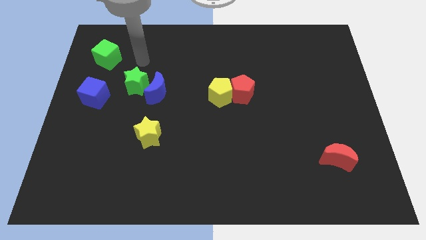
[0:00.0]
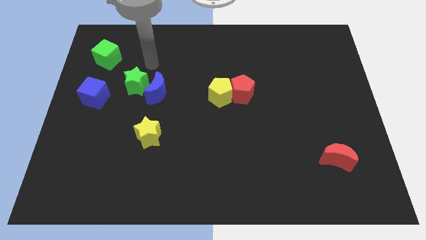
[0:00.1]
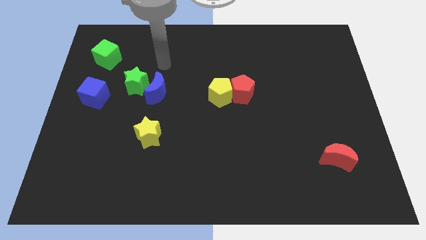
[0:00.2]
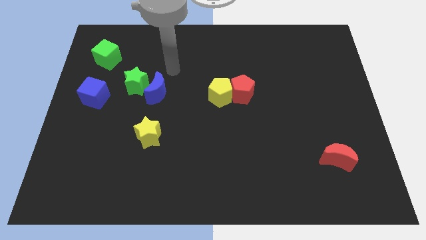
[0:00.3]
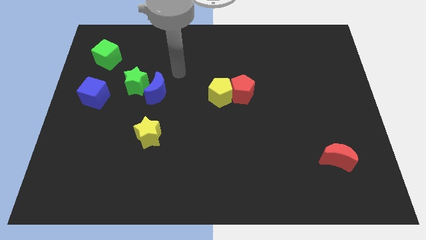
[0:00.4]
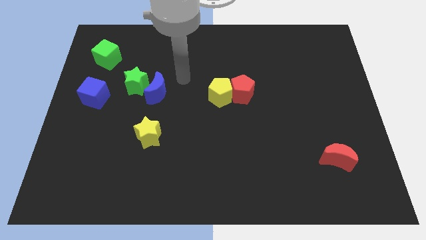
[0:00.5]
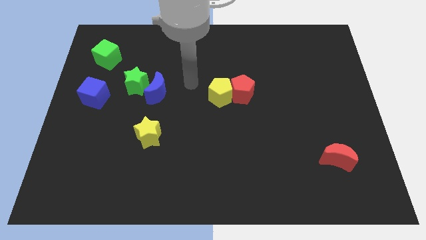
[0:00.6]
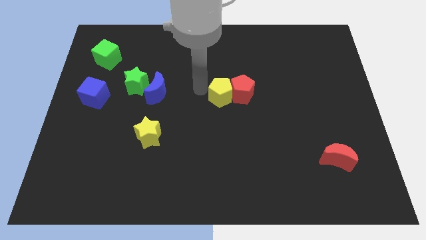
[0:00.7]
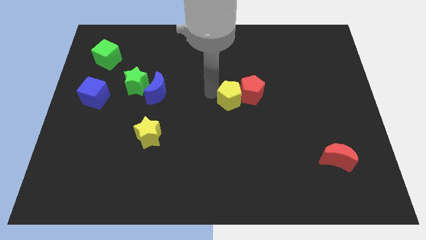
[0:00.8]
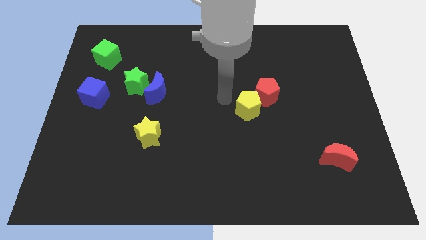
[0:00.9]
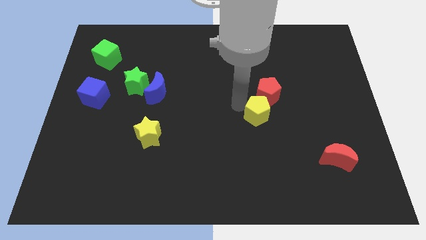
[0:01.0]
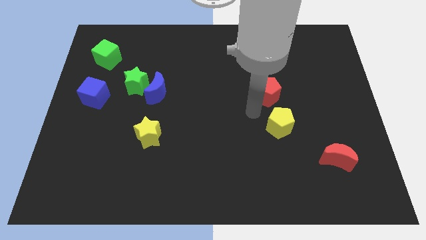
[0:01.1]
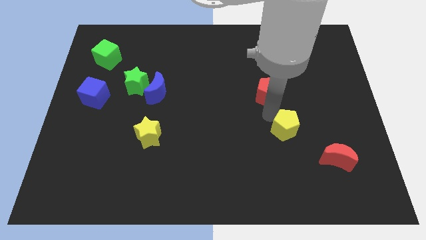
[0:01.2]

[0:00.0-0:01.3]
separate the red pentagon from the yellow pentagon

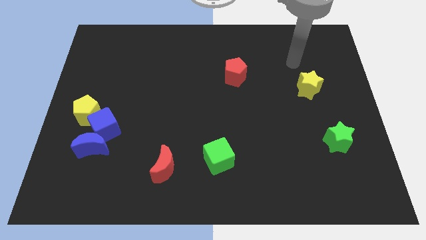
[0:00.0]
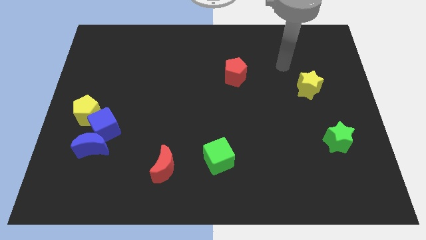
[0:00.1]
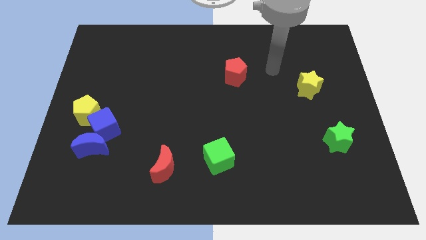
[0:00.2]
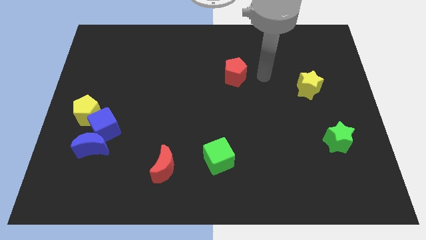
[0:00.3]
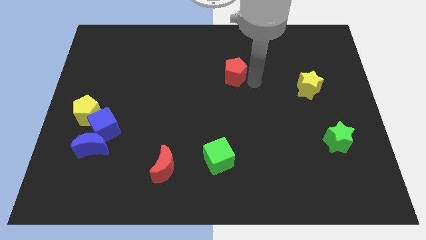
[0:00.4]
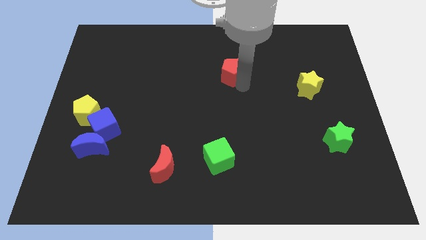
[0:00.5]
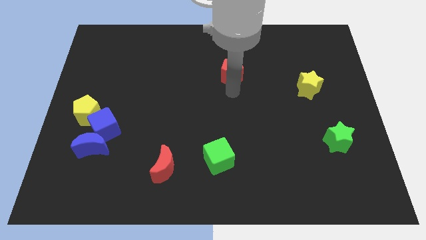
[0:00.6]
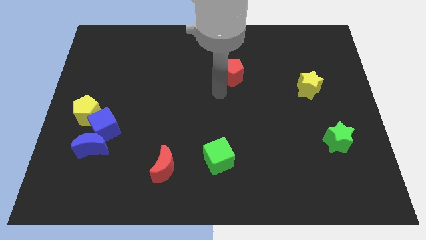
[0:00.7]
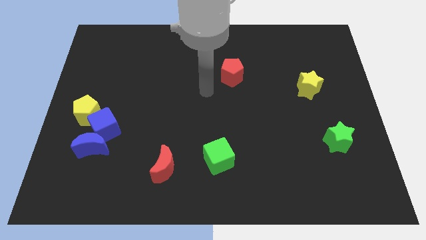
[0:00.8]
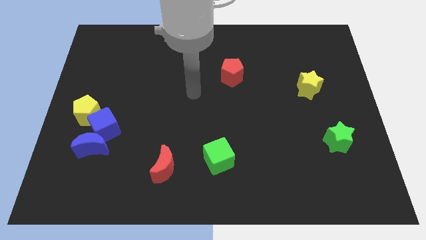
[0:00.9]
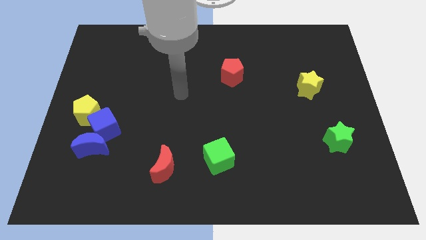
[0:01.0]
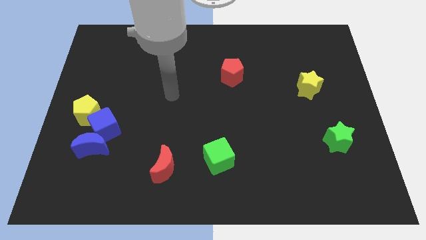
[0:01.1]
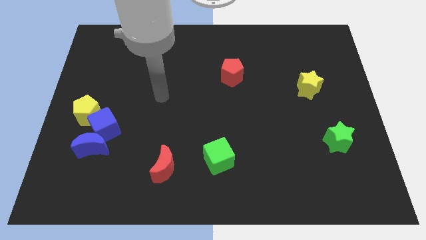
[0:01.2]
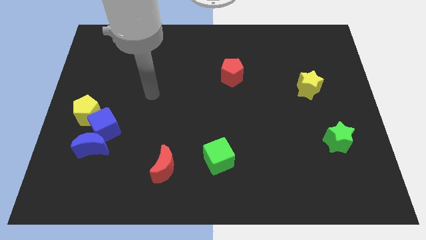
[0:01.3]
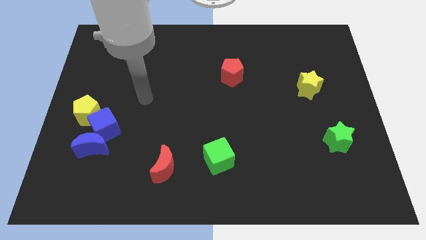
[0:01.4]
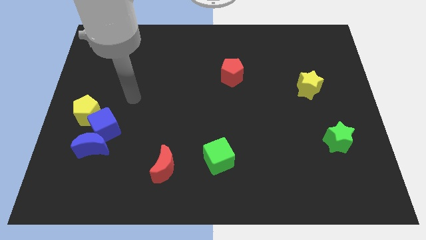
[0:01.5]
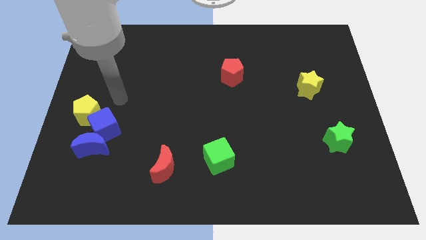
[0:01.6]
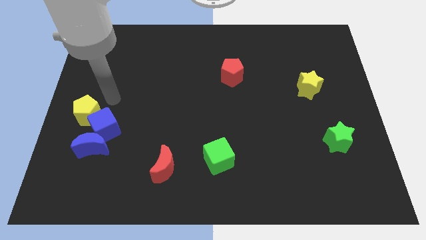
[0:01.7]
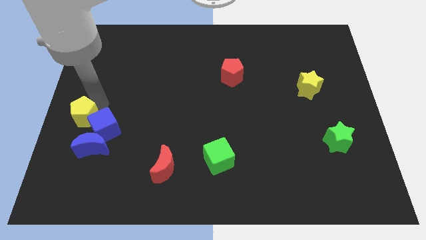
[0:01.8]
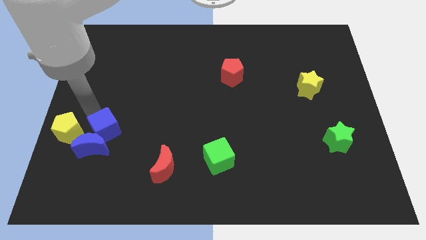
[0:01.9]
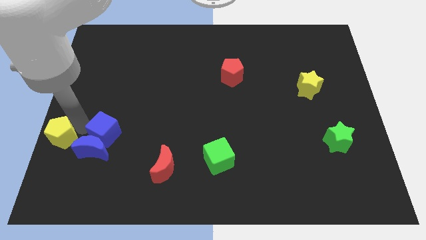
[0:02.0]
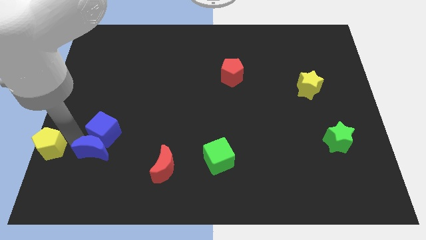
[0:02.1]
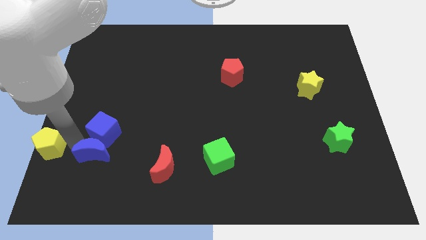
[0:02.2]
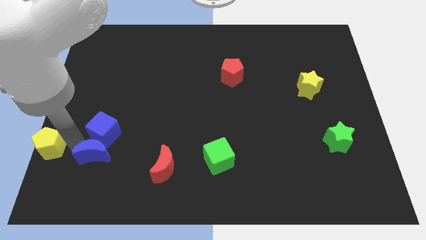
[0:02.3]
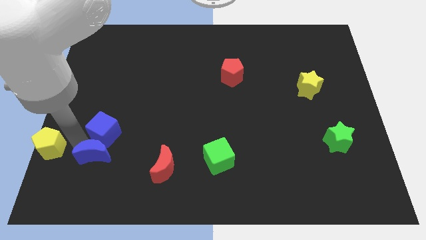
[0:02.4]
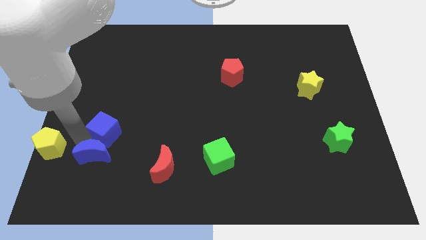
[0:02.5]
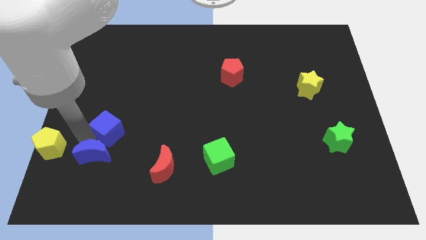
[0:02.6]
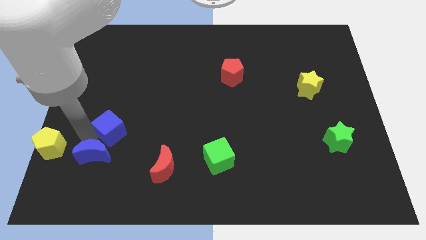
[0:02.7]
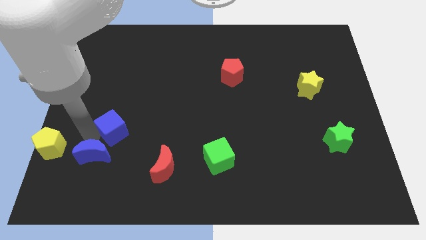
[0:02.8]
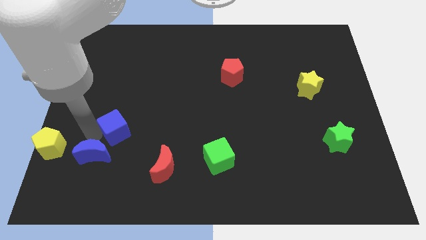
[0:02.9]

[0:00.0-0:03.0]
separate the blue cube from the blue moon and yellow pentagon

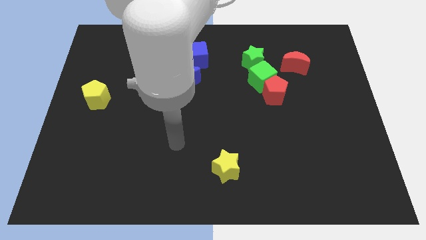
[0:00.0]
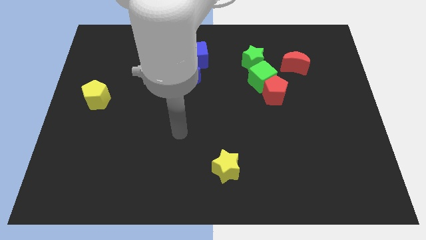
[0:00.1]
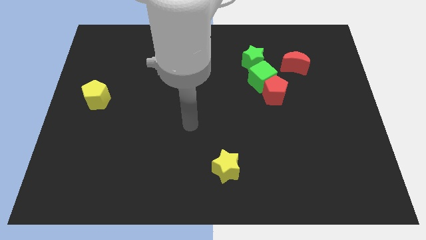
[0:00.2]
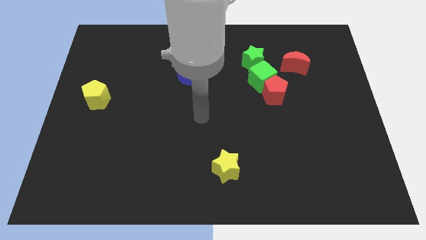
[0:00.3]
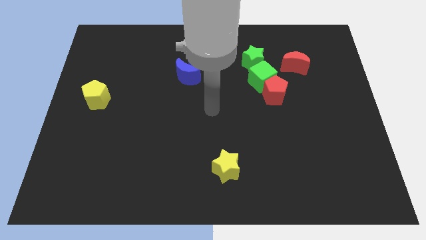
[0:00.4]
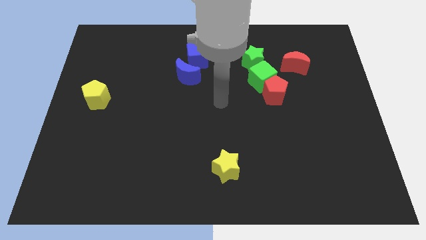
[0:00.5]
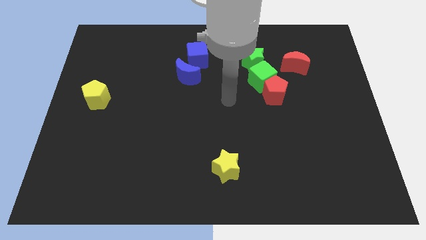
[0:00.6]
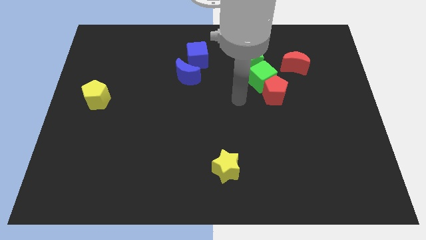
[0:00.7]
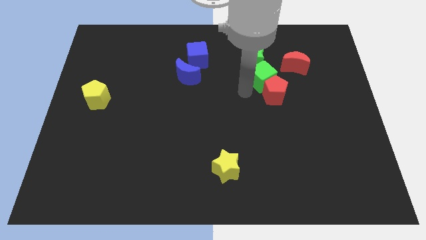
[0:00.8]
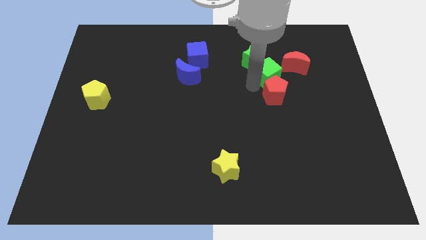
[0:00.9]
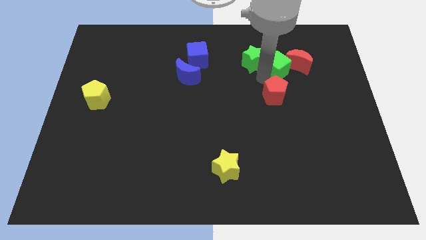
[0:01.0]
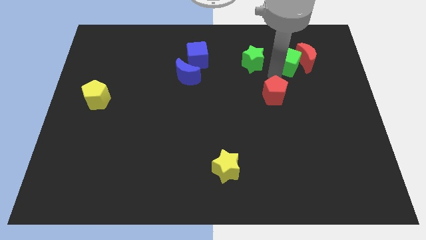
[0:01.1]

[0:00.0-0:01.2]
move the red pentagon away from the green cube

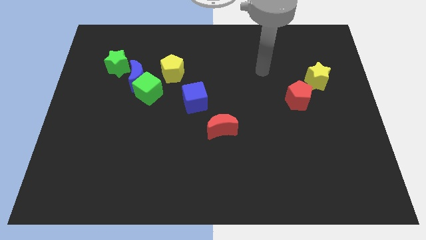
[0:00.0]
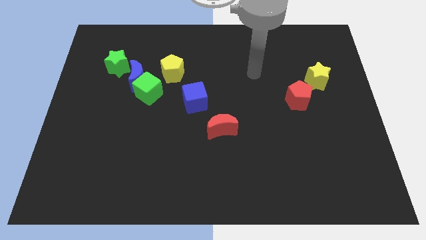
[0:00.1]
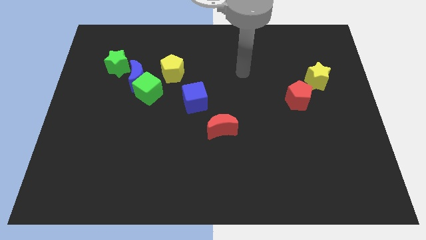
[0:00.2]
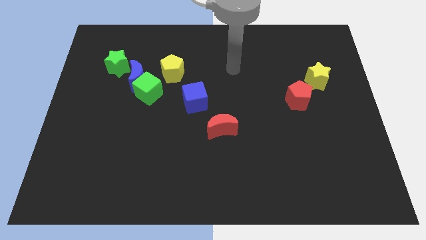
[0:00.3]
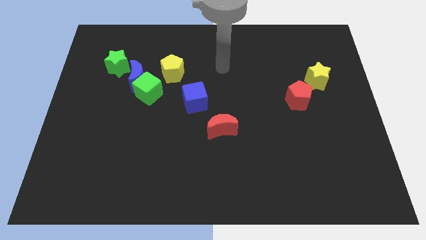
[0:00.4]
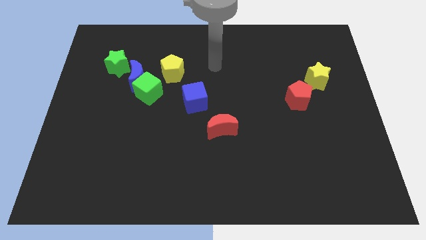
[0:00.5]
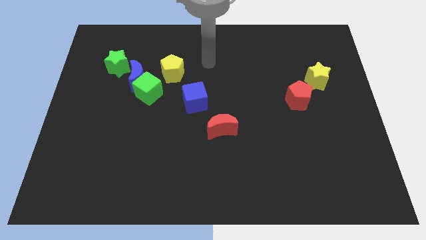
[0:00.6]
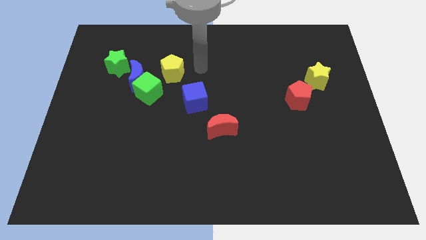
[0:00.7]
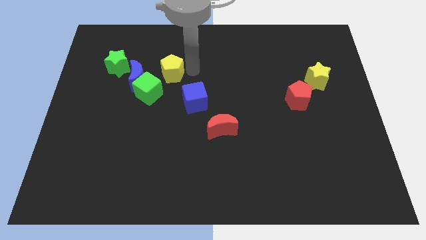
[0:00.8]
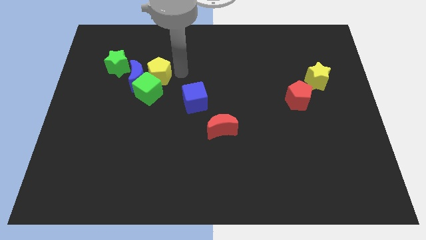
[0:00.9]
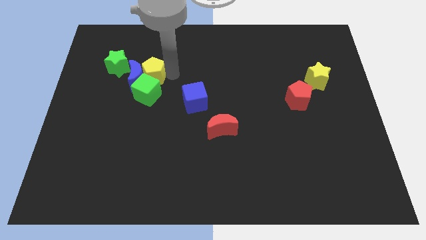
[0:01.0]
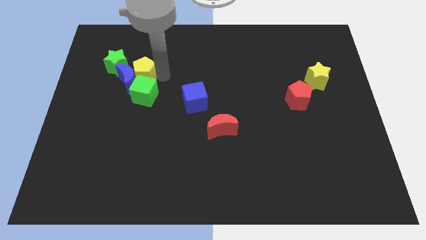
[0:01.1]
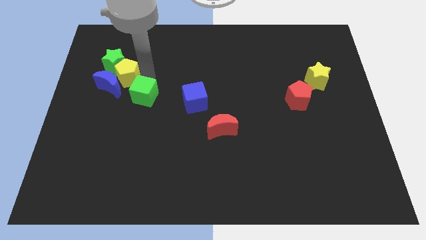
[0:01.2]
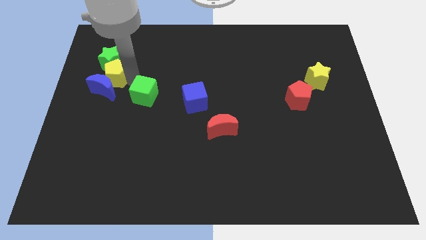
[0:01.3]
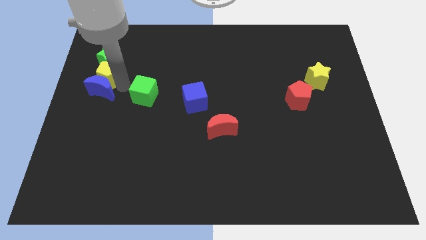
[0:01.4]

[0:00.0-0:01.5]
move the green cube away from the blue moon and yellow pentagon

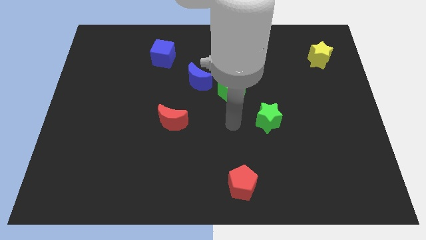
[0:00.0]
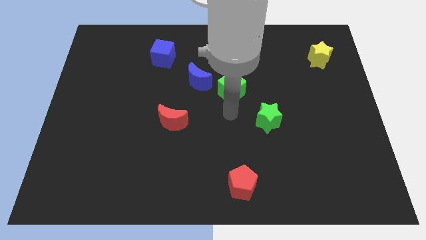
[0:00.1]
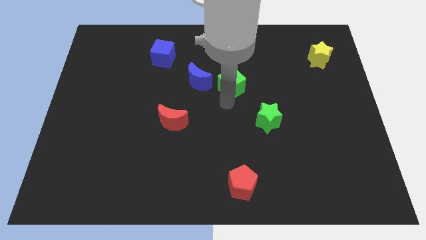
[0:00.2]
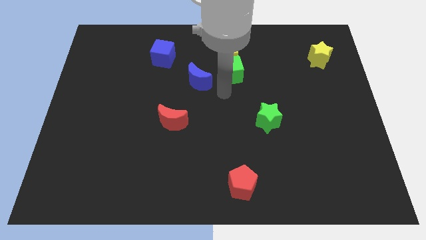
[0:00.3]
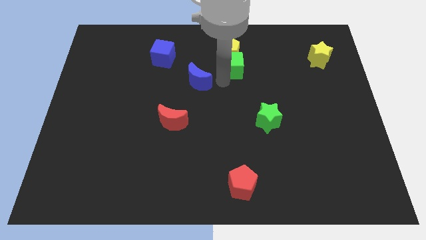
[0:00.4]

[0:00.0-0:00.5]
move the blue moon away from the green cube

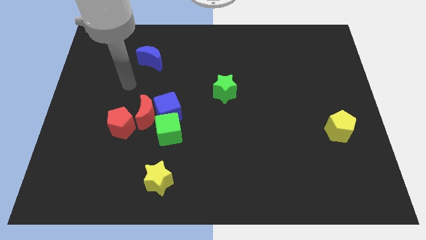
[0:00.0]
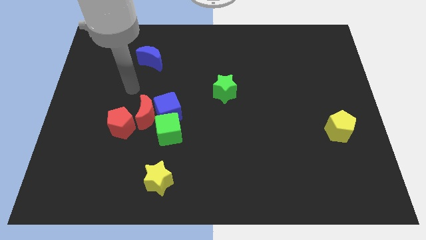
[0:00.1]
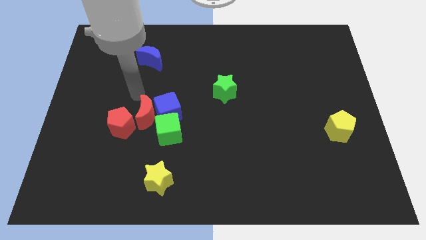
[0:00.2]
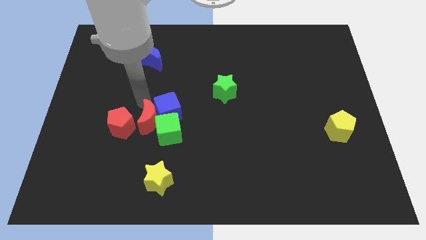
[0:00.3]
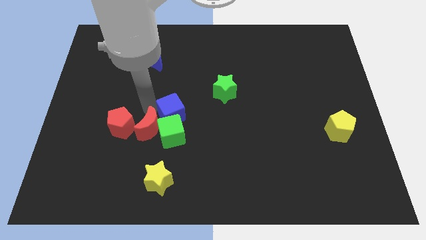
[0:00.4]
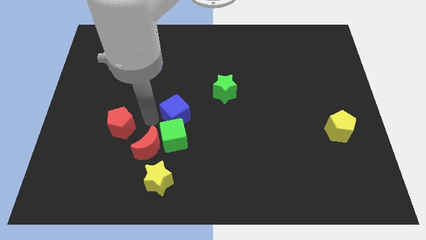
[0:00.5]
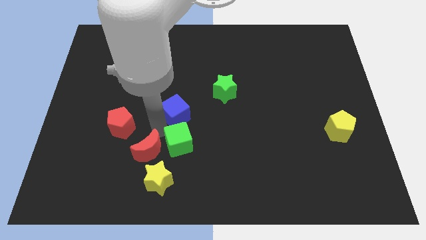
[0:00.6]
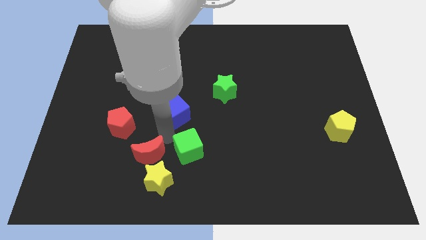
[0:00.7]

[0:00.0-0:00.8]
pull the blue cube apart from the red moon and green cube

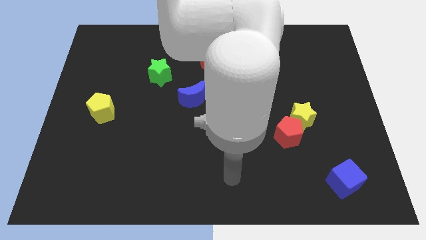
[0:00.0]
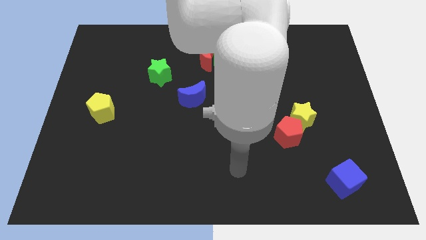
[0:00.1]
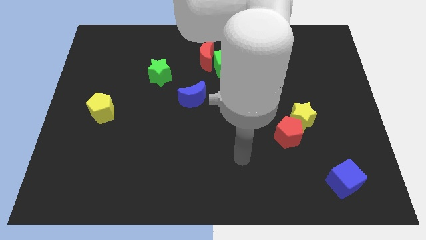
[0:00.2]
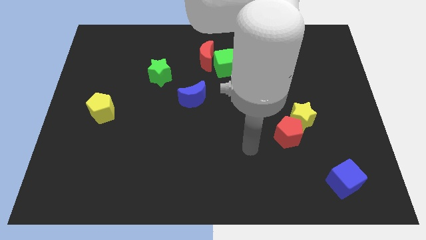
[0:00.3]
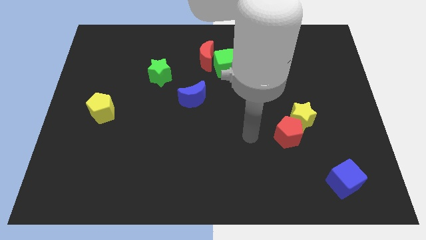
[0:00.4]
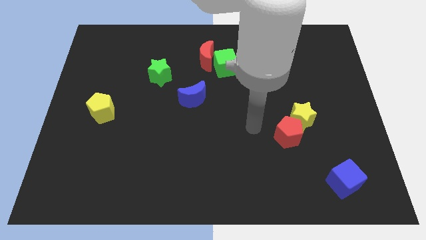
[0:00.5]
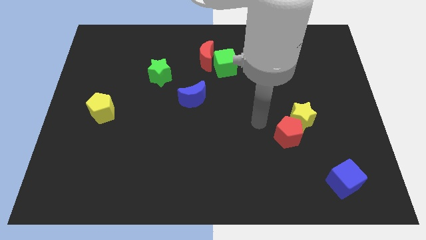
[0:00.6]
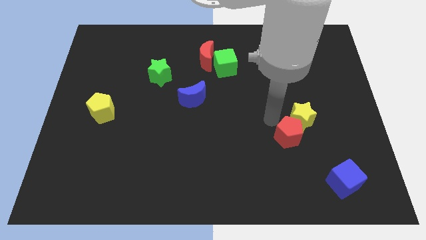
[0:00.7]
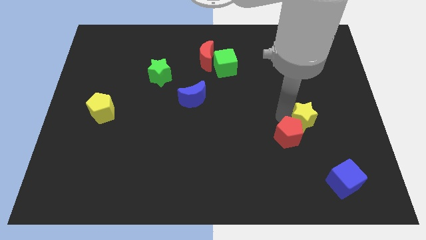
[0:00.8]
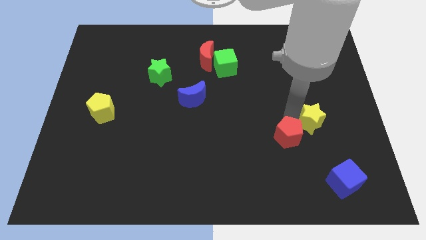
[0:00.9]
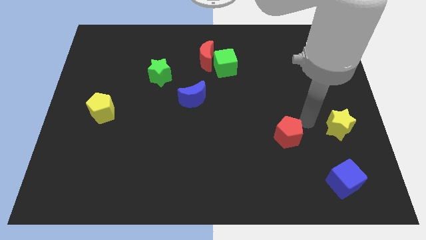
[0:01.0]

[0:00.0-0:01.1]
move the red pentagon away from the yellow star
